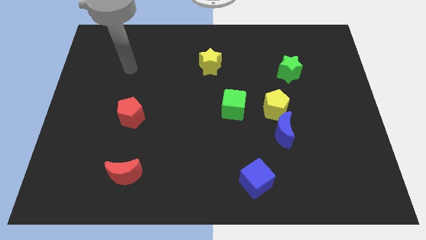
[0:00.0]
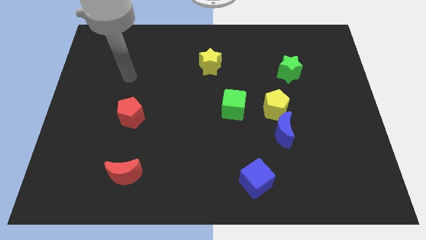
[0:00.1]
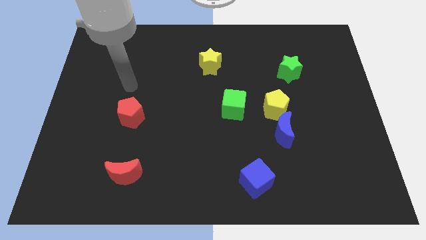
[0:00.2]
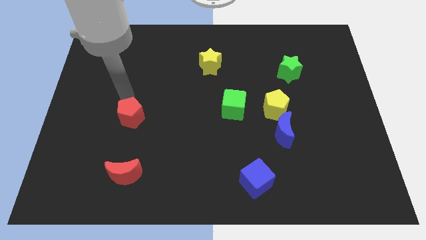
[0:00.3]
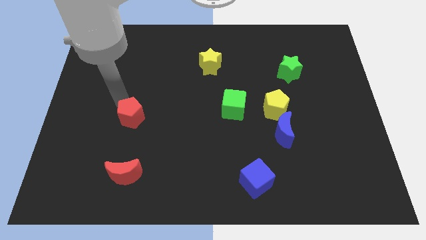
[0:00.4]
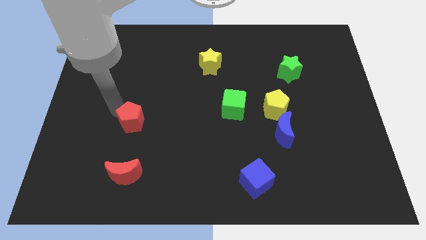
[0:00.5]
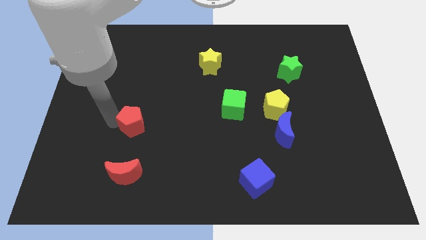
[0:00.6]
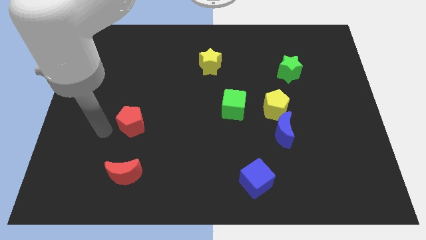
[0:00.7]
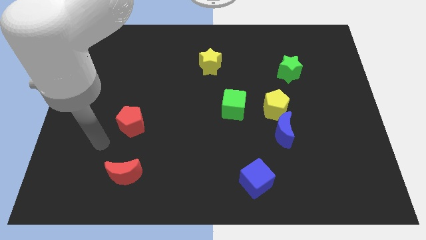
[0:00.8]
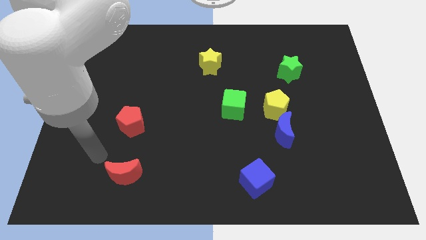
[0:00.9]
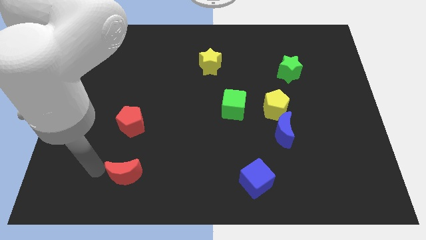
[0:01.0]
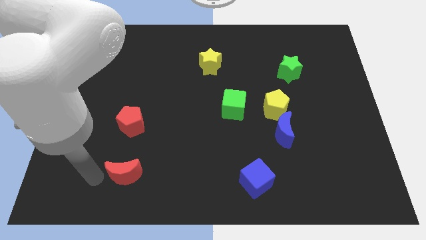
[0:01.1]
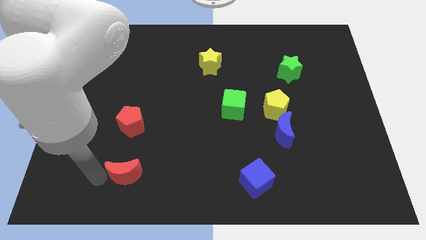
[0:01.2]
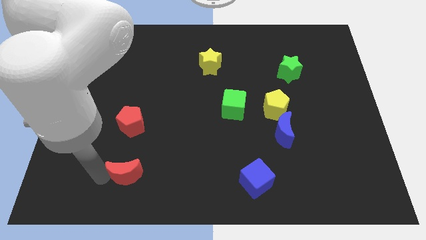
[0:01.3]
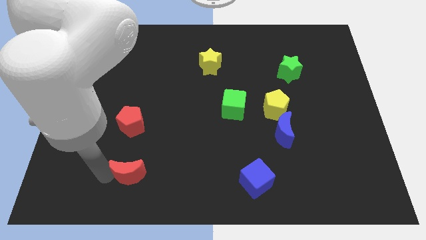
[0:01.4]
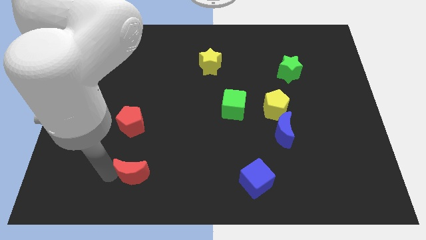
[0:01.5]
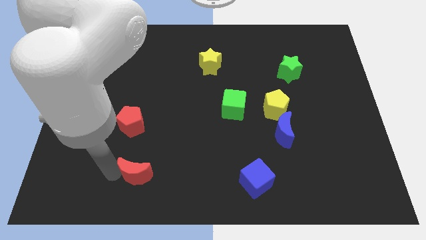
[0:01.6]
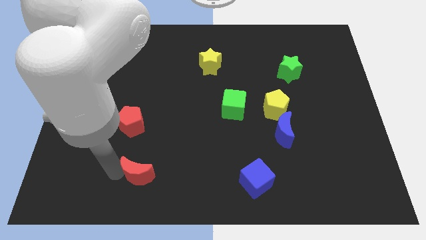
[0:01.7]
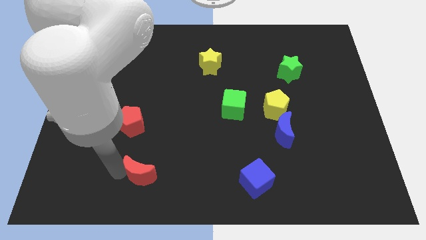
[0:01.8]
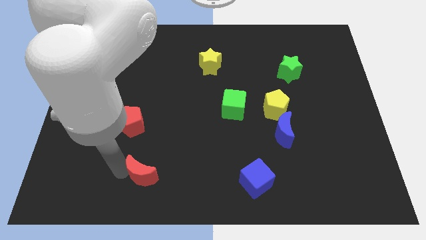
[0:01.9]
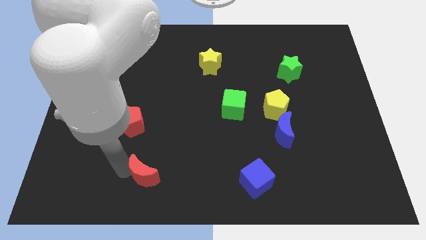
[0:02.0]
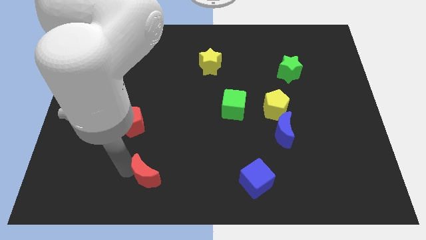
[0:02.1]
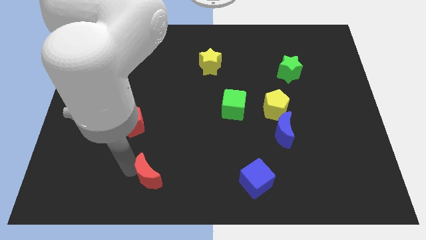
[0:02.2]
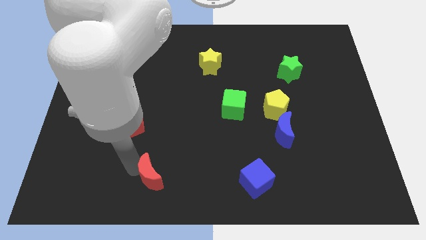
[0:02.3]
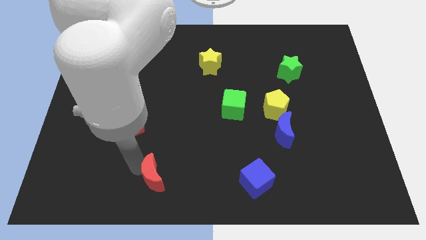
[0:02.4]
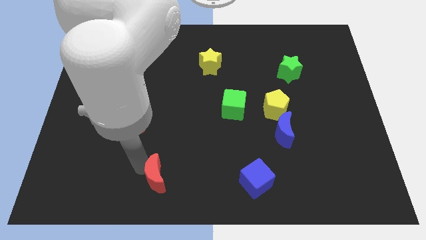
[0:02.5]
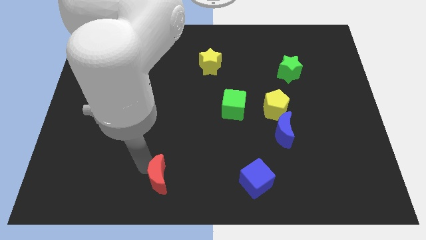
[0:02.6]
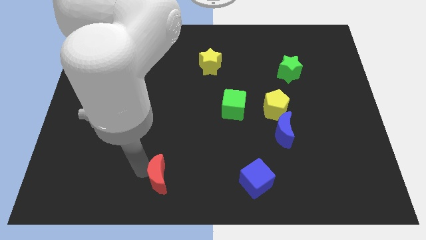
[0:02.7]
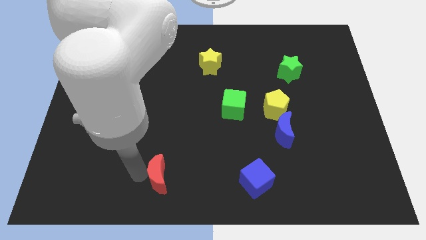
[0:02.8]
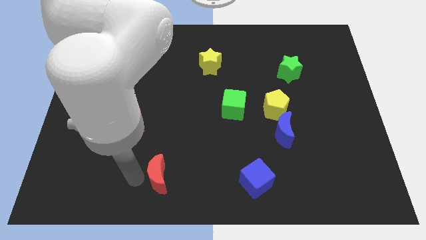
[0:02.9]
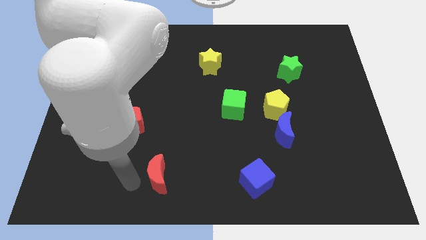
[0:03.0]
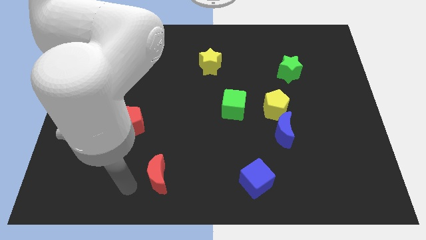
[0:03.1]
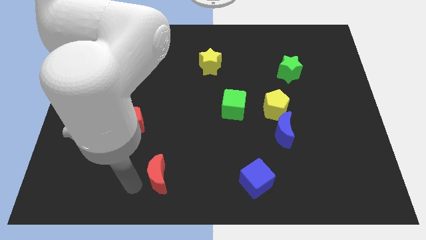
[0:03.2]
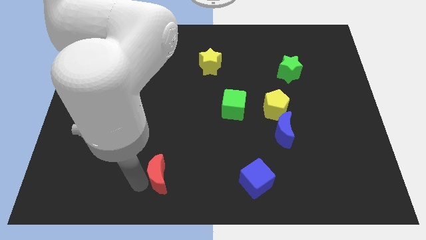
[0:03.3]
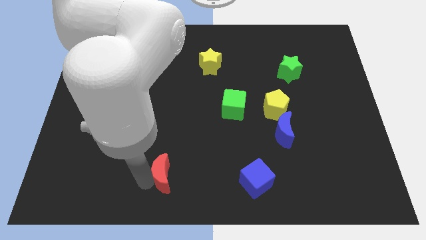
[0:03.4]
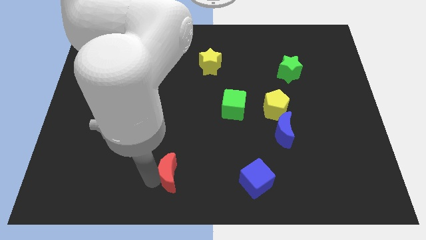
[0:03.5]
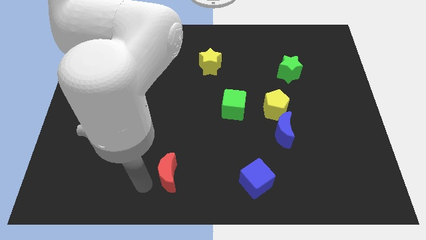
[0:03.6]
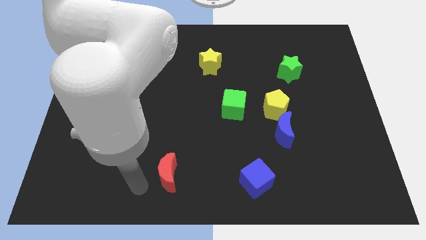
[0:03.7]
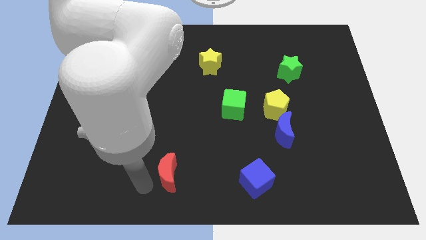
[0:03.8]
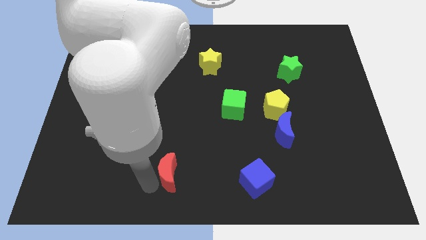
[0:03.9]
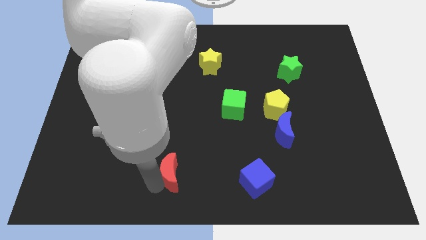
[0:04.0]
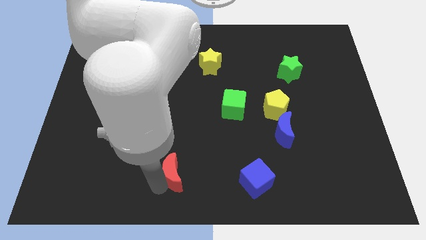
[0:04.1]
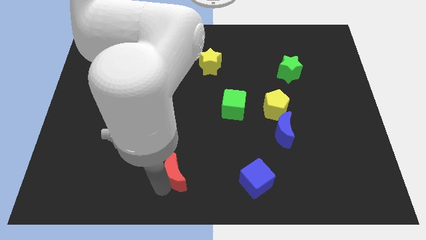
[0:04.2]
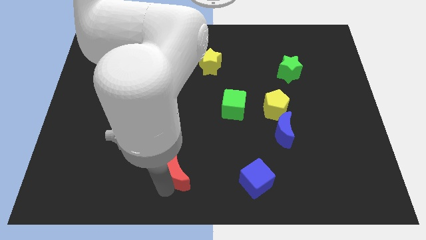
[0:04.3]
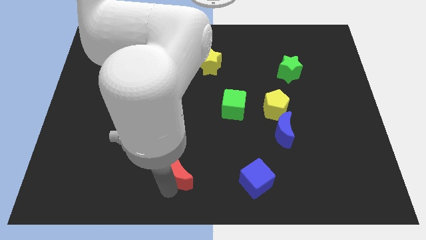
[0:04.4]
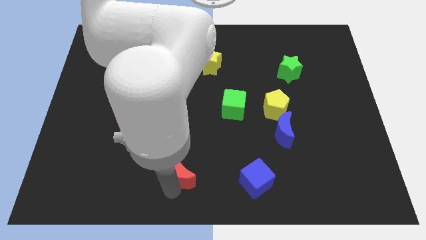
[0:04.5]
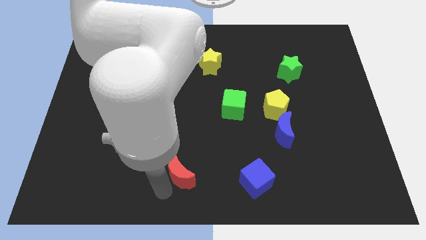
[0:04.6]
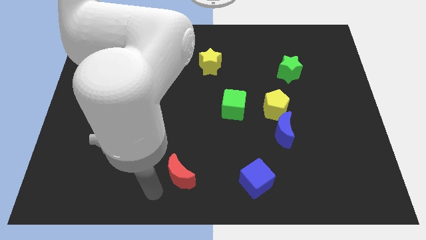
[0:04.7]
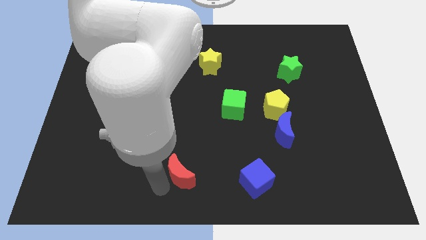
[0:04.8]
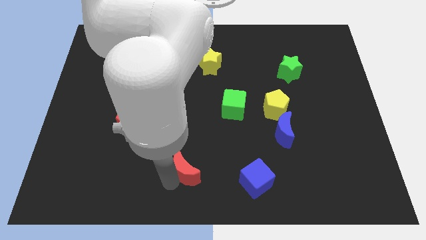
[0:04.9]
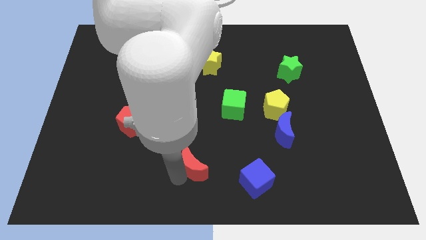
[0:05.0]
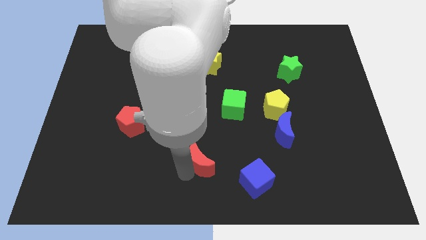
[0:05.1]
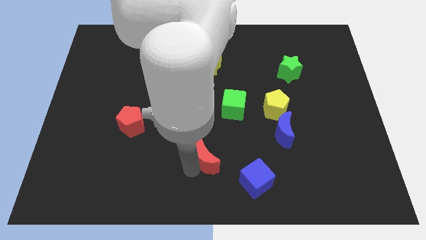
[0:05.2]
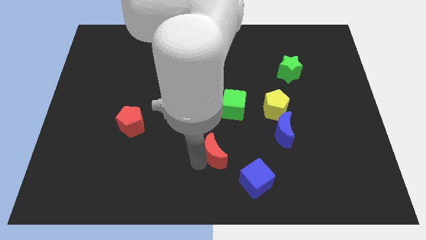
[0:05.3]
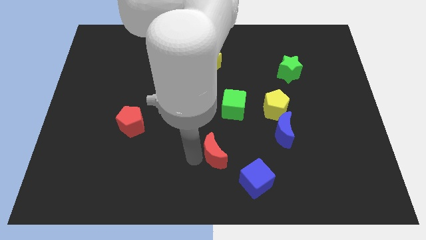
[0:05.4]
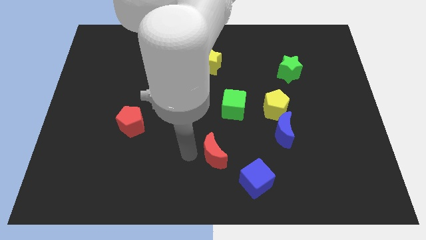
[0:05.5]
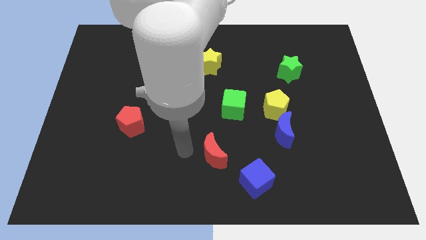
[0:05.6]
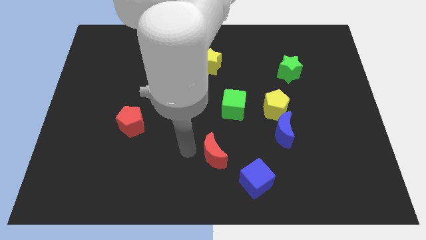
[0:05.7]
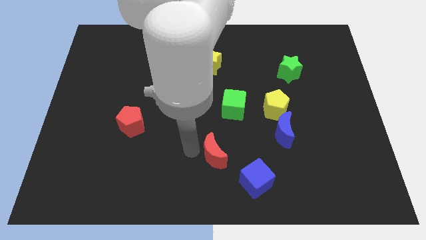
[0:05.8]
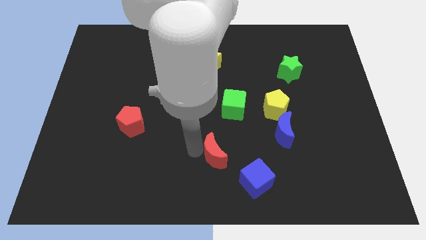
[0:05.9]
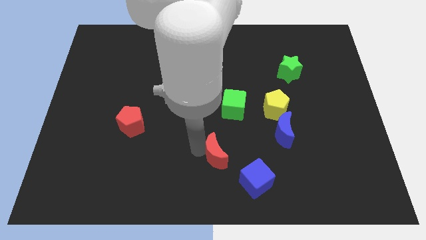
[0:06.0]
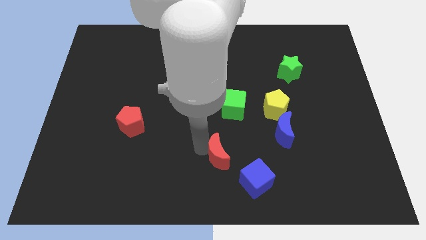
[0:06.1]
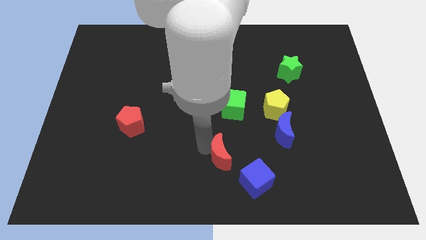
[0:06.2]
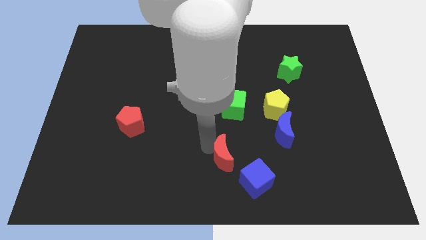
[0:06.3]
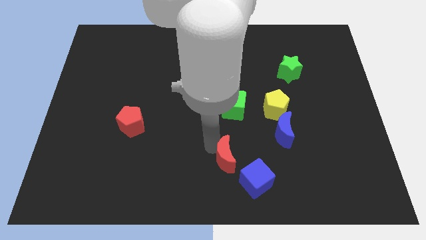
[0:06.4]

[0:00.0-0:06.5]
move the red moon right

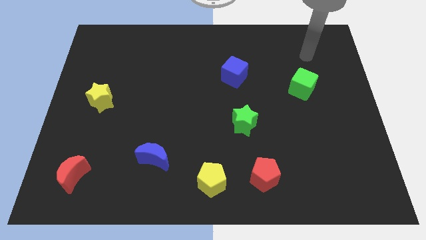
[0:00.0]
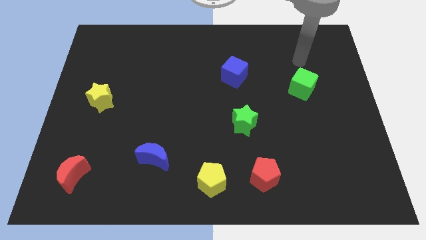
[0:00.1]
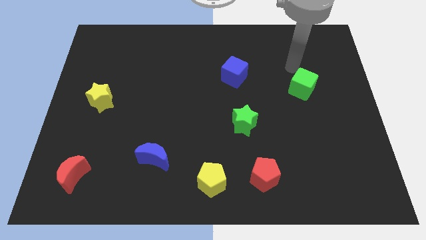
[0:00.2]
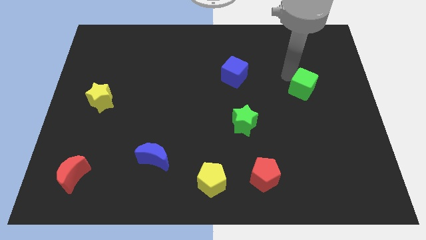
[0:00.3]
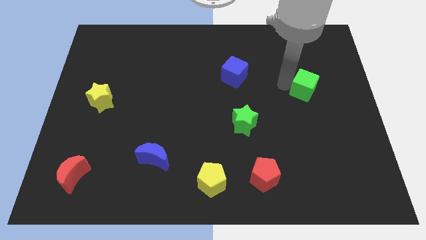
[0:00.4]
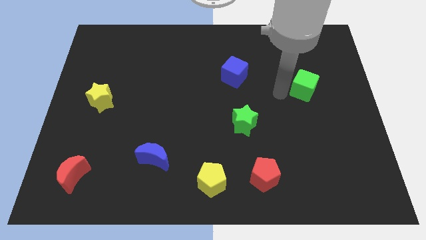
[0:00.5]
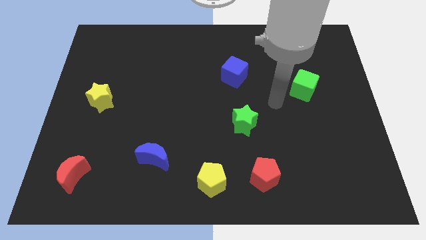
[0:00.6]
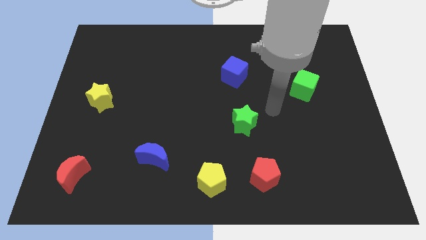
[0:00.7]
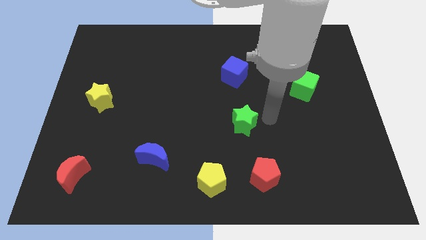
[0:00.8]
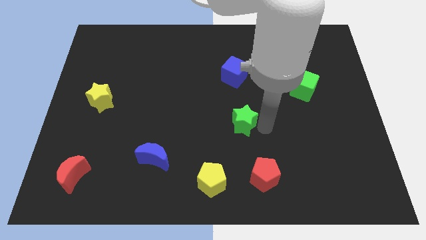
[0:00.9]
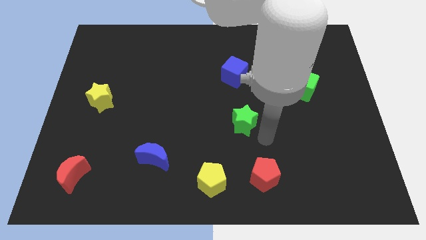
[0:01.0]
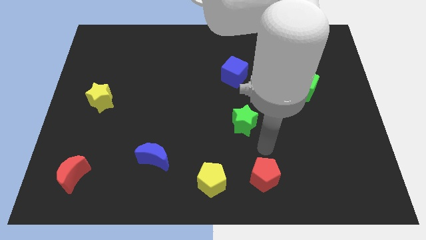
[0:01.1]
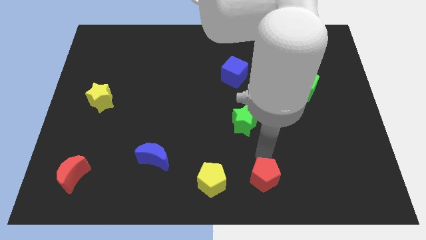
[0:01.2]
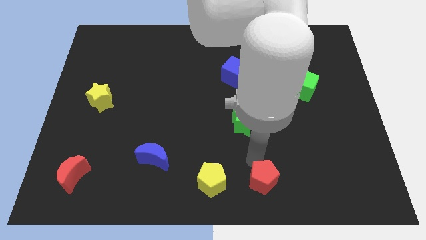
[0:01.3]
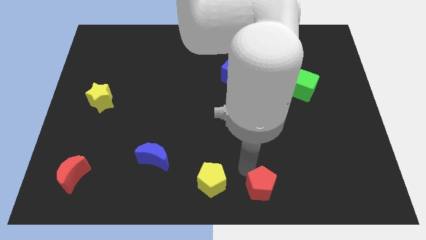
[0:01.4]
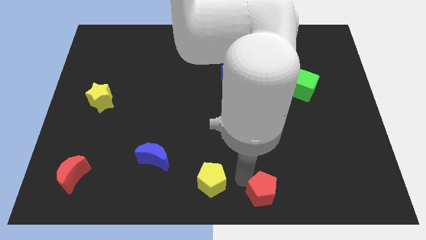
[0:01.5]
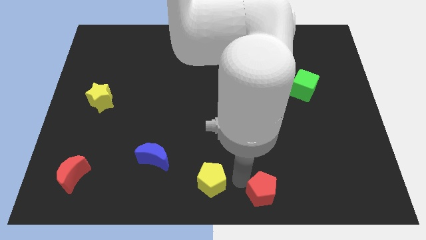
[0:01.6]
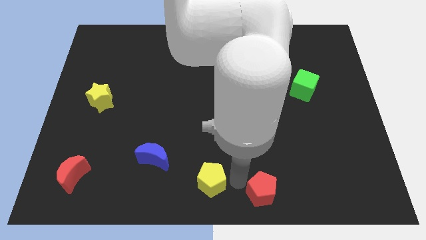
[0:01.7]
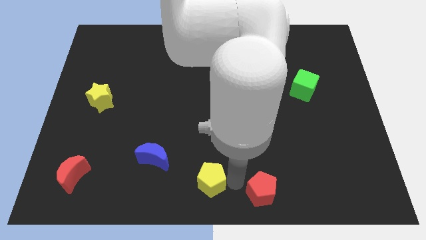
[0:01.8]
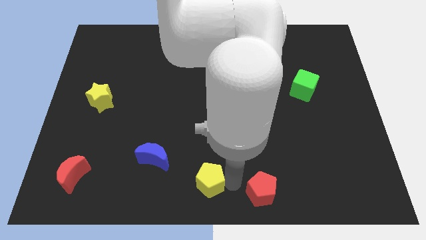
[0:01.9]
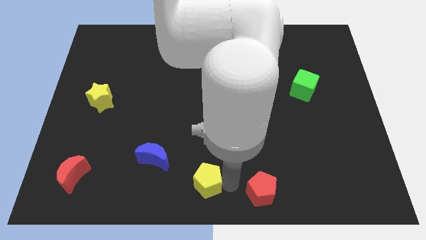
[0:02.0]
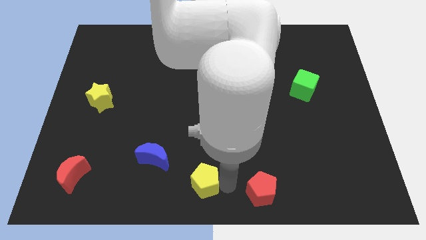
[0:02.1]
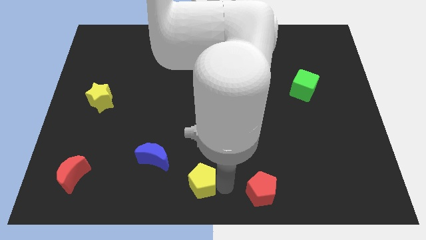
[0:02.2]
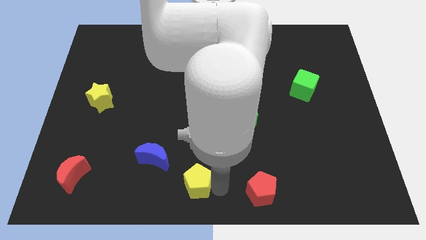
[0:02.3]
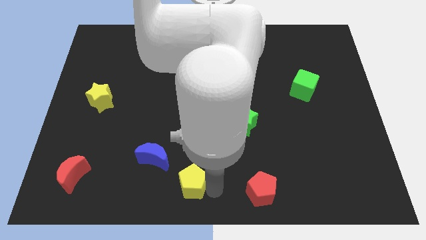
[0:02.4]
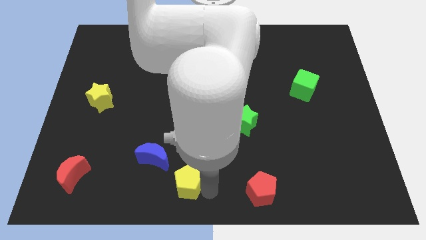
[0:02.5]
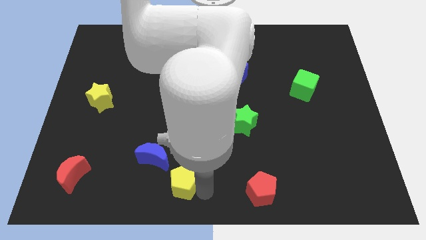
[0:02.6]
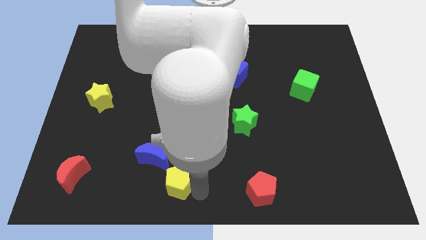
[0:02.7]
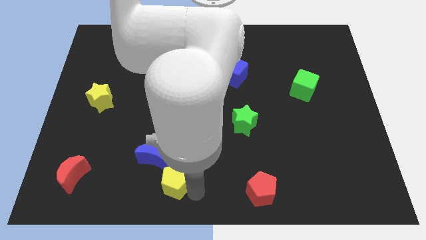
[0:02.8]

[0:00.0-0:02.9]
slightly push the yellow pentagon left
